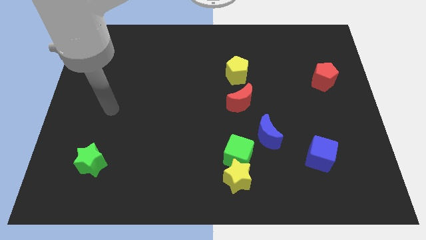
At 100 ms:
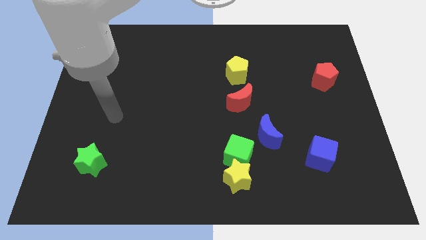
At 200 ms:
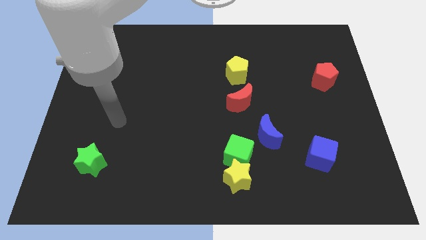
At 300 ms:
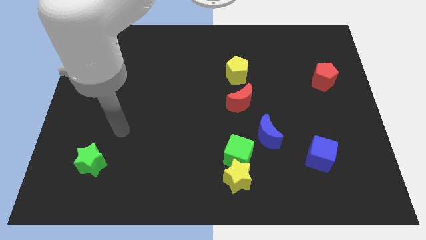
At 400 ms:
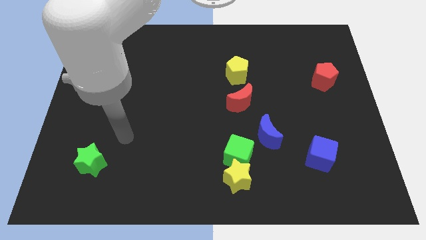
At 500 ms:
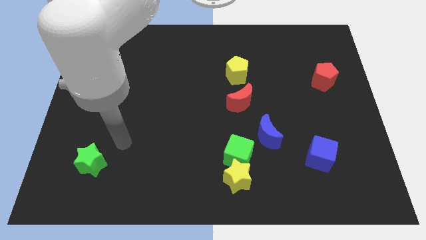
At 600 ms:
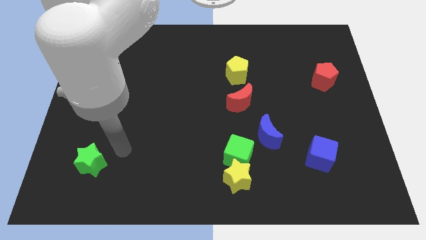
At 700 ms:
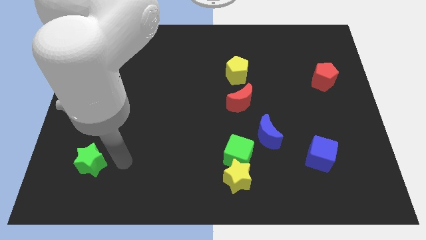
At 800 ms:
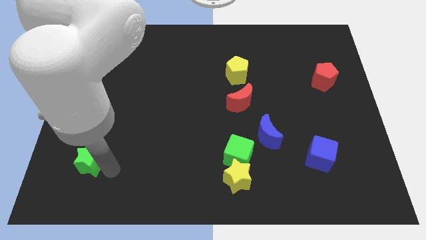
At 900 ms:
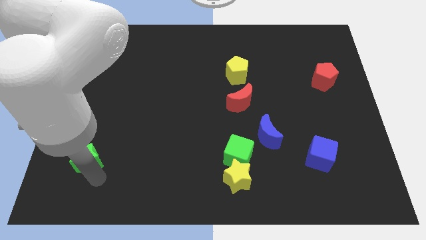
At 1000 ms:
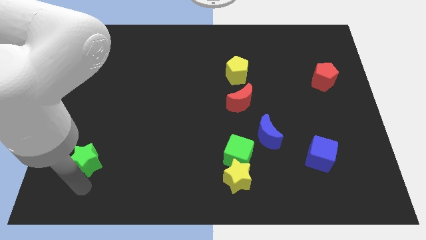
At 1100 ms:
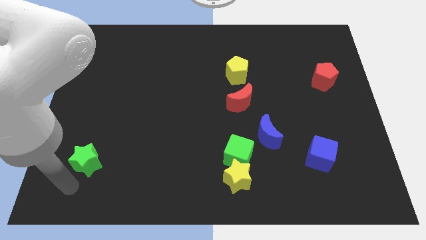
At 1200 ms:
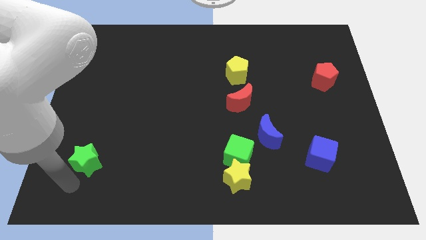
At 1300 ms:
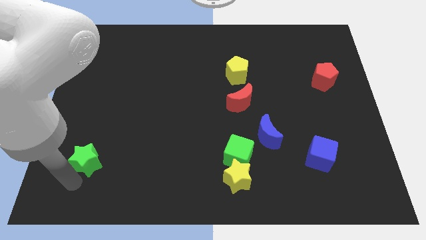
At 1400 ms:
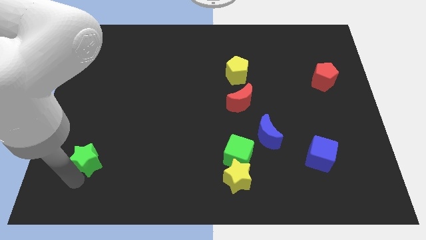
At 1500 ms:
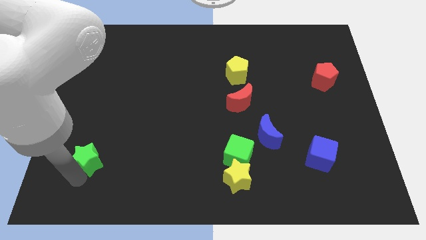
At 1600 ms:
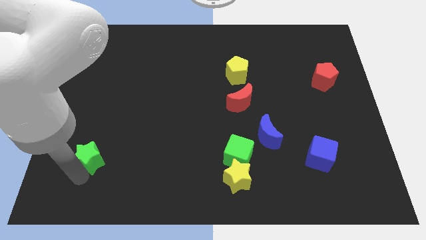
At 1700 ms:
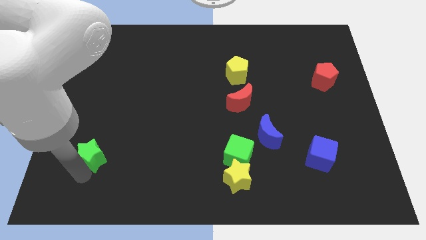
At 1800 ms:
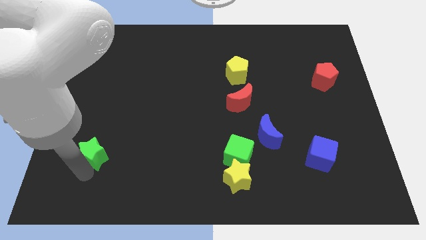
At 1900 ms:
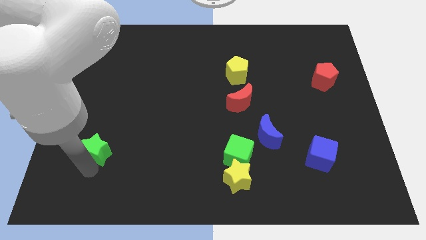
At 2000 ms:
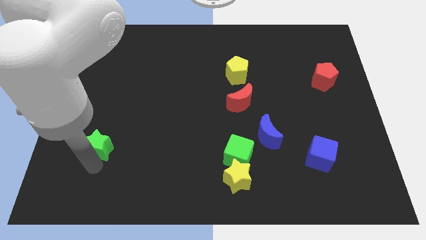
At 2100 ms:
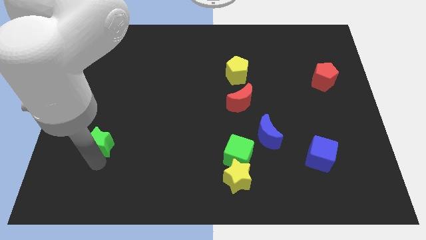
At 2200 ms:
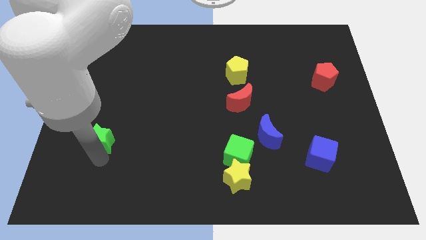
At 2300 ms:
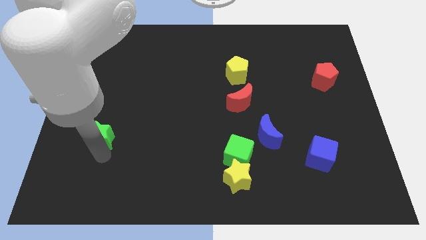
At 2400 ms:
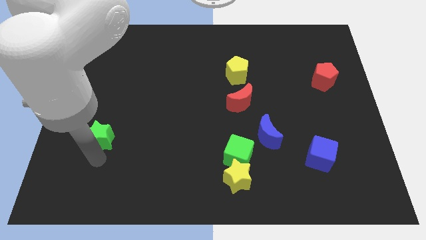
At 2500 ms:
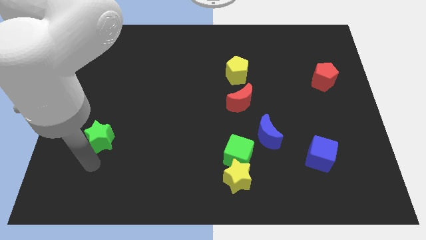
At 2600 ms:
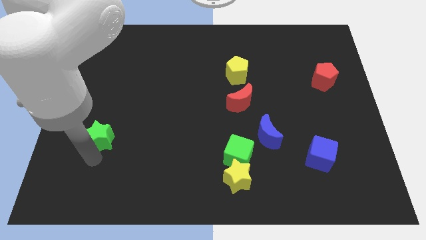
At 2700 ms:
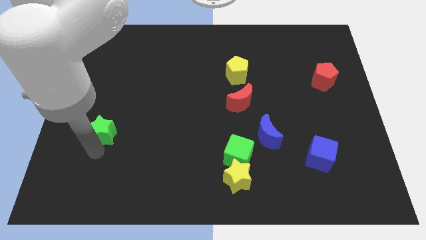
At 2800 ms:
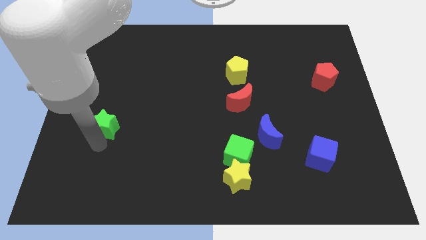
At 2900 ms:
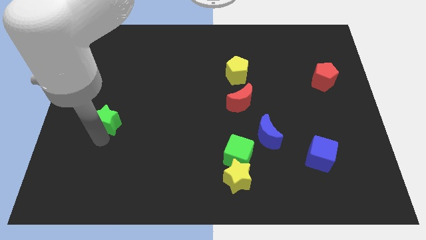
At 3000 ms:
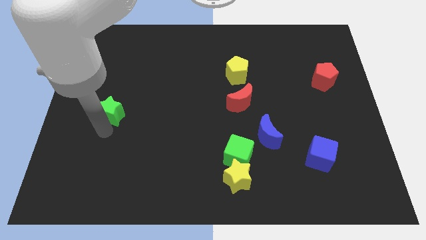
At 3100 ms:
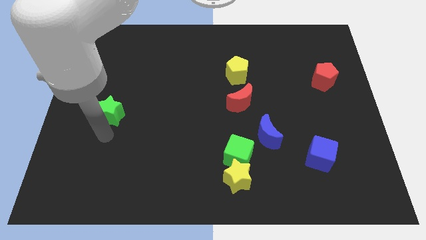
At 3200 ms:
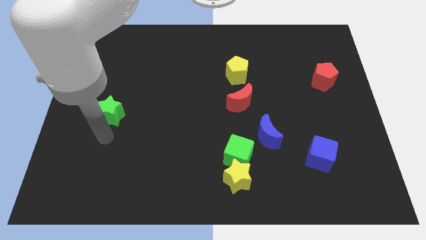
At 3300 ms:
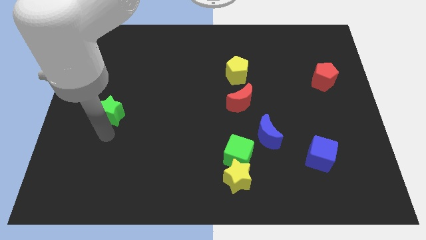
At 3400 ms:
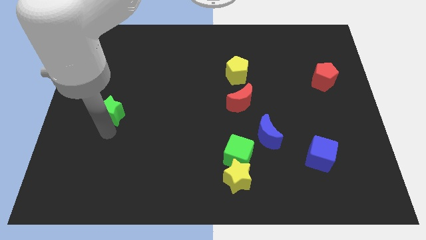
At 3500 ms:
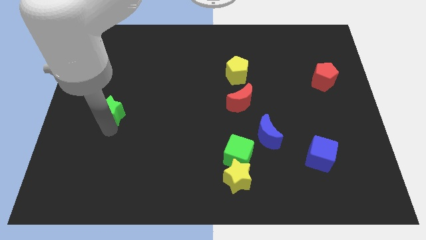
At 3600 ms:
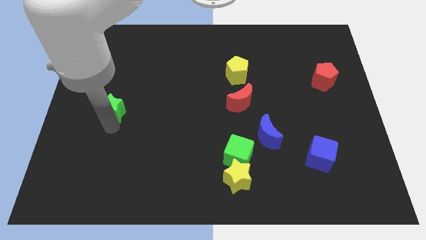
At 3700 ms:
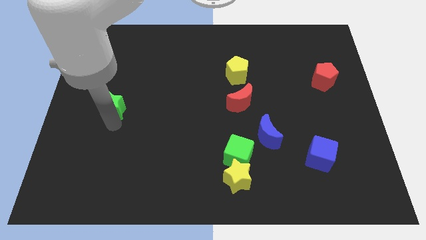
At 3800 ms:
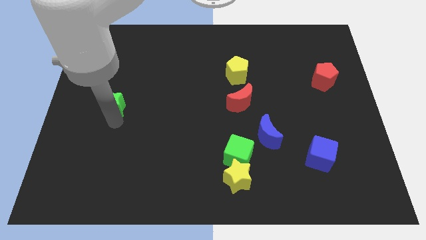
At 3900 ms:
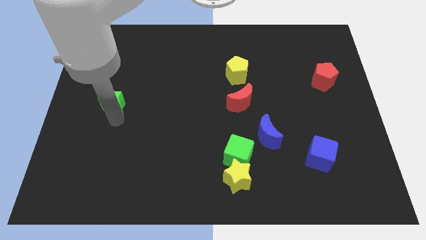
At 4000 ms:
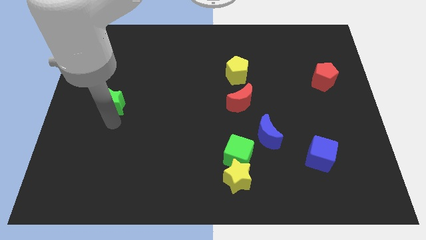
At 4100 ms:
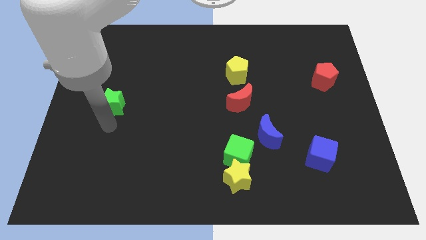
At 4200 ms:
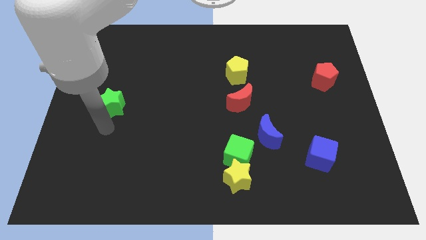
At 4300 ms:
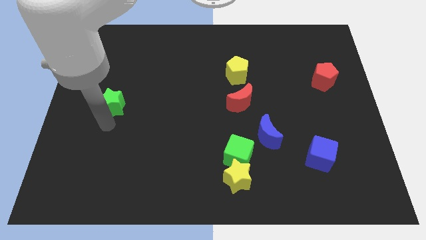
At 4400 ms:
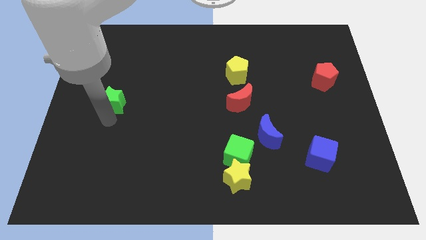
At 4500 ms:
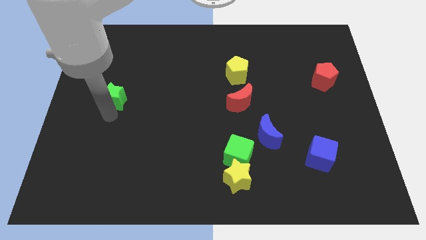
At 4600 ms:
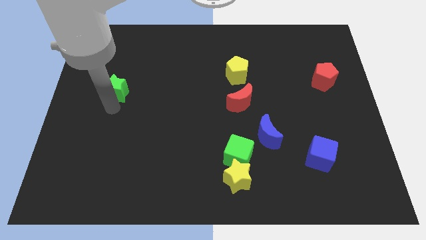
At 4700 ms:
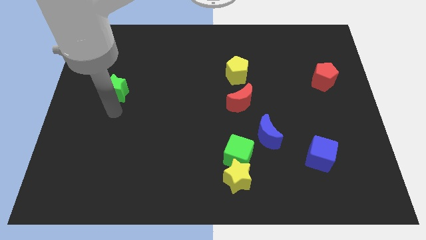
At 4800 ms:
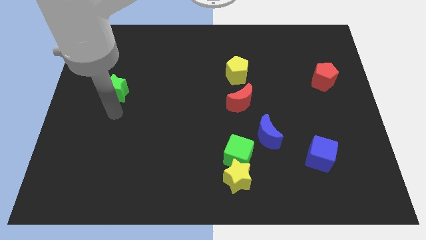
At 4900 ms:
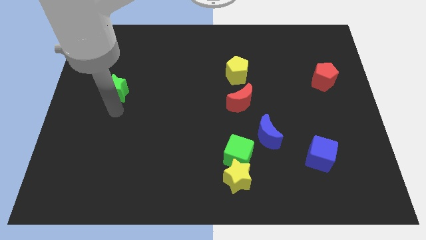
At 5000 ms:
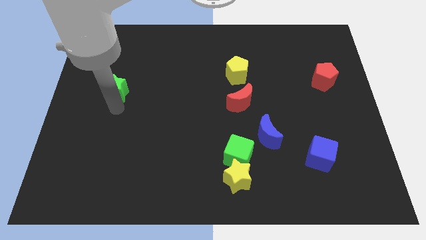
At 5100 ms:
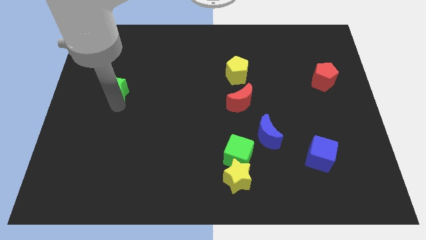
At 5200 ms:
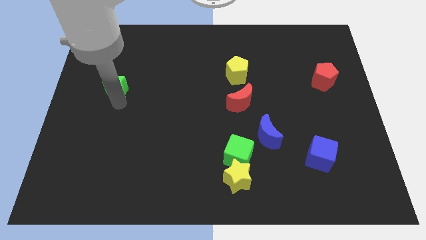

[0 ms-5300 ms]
move the green star upwards

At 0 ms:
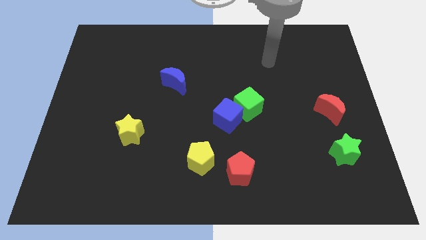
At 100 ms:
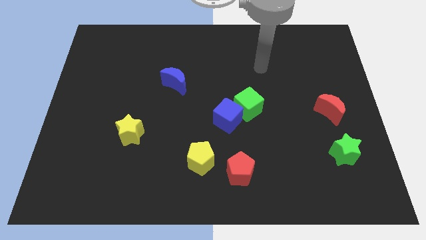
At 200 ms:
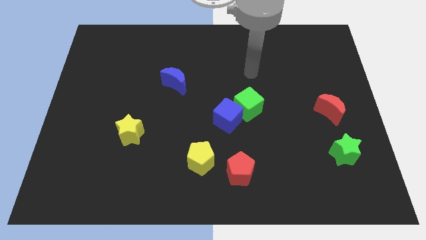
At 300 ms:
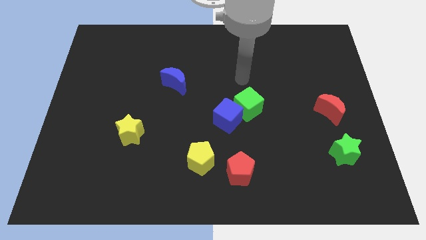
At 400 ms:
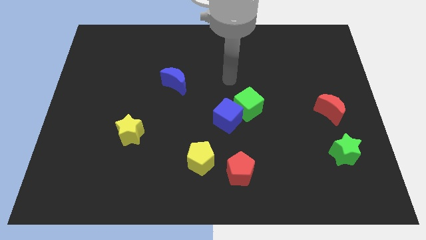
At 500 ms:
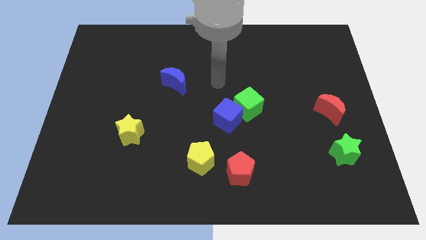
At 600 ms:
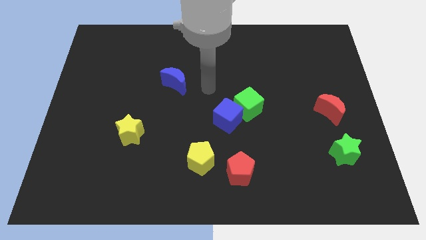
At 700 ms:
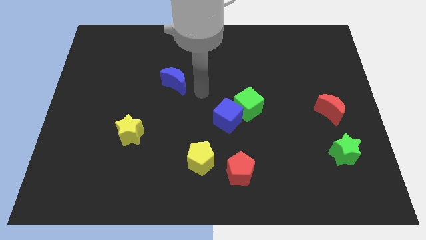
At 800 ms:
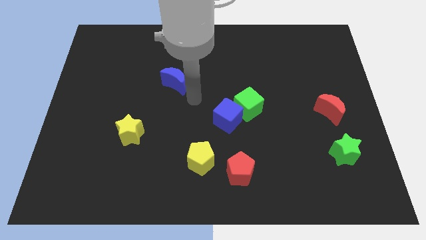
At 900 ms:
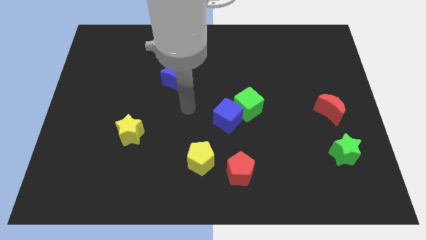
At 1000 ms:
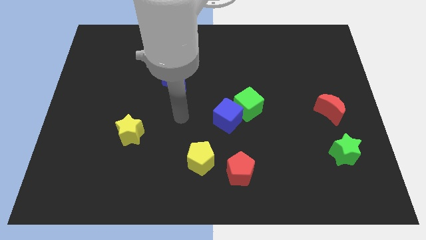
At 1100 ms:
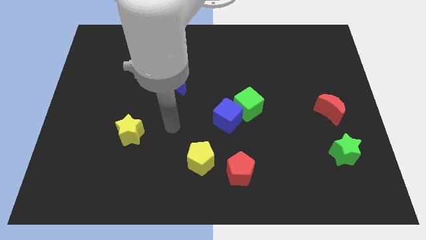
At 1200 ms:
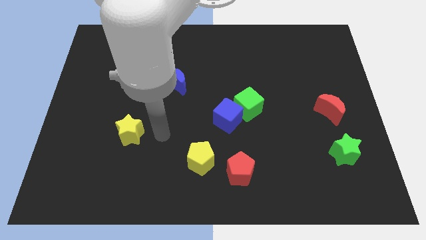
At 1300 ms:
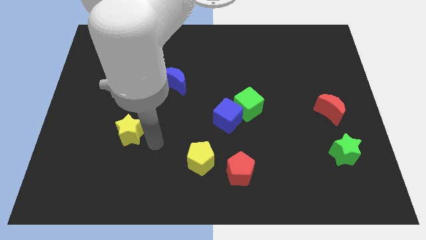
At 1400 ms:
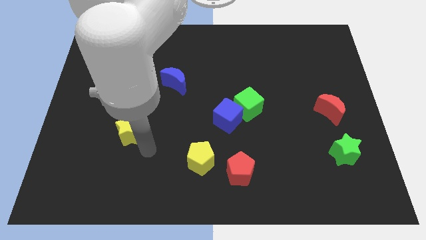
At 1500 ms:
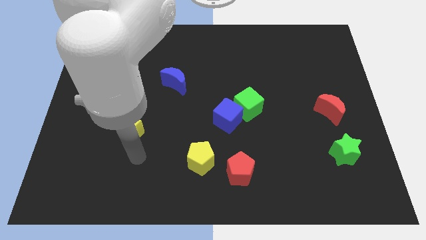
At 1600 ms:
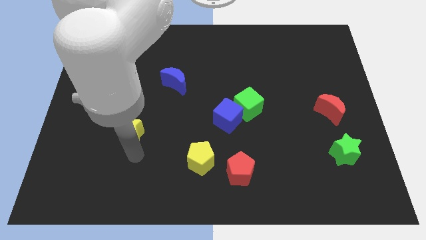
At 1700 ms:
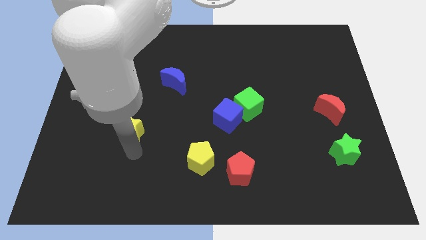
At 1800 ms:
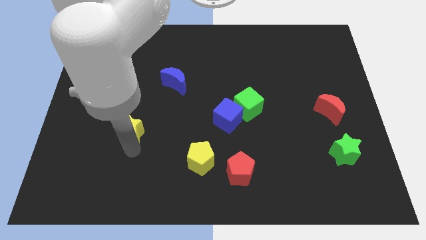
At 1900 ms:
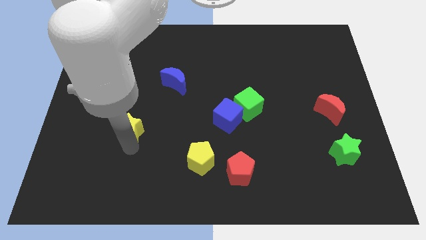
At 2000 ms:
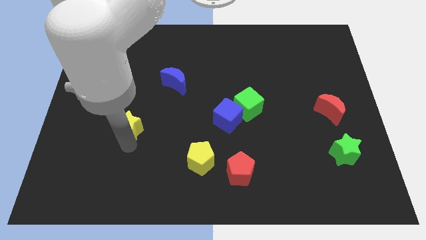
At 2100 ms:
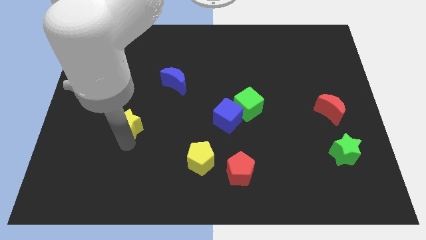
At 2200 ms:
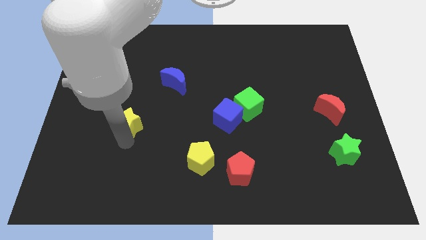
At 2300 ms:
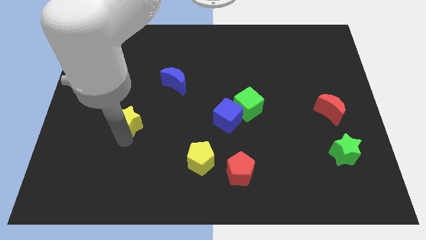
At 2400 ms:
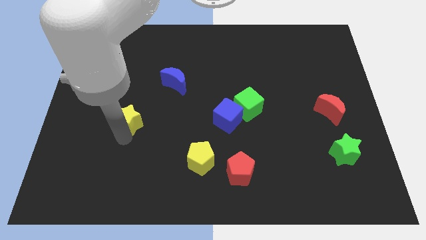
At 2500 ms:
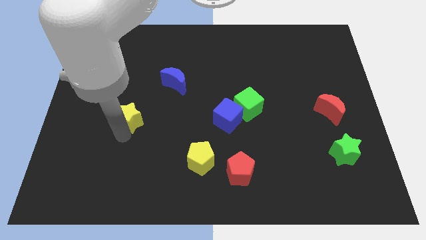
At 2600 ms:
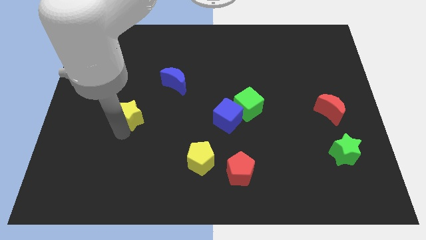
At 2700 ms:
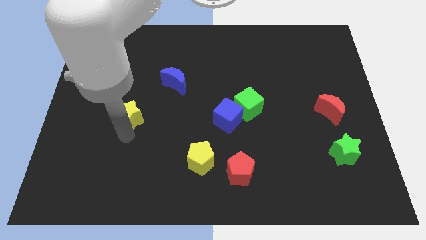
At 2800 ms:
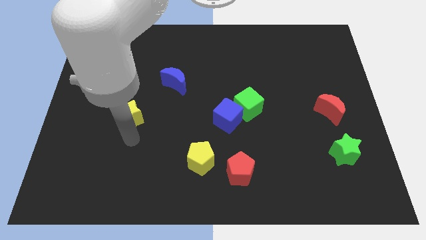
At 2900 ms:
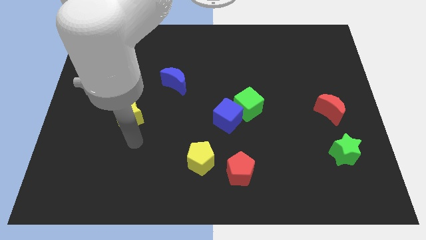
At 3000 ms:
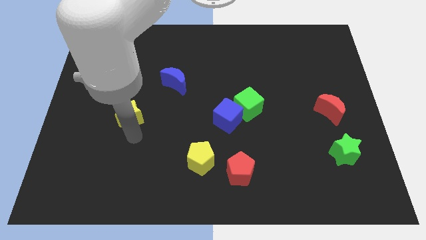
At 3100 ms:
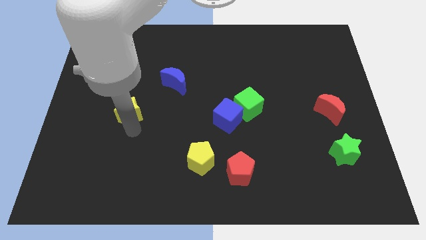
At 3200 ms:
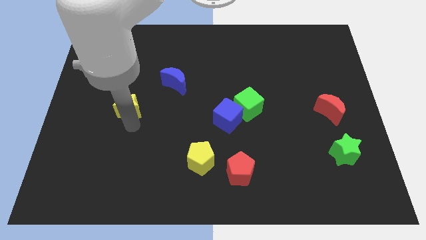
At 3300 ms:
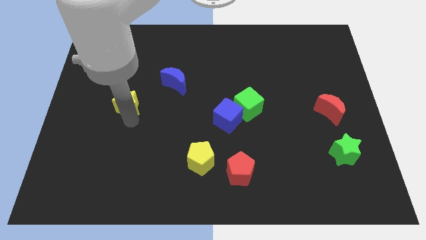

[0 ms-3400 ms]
move the yellow star slightly up
